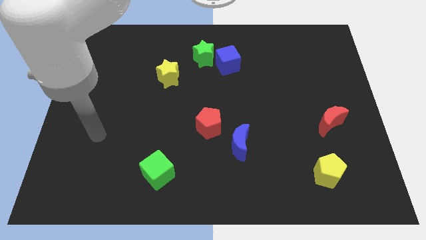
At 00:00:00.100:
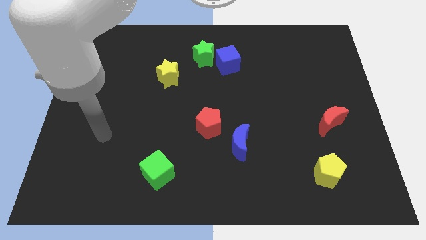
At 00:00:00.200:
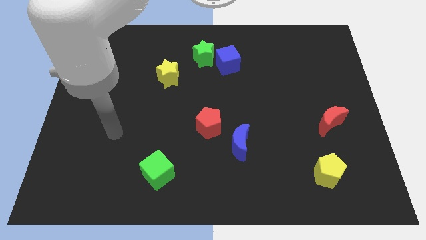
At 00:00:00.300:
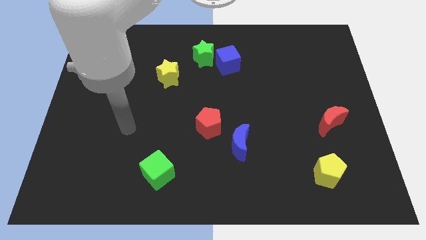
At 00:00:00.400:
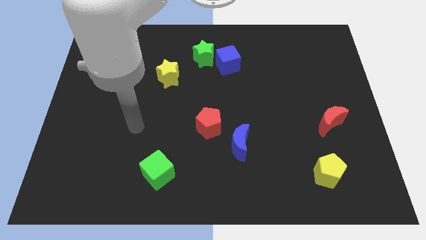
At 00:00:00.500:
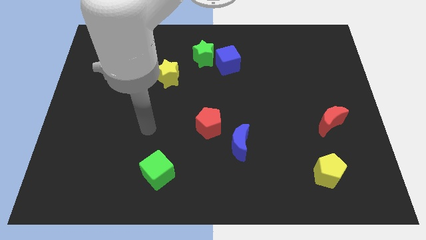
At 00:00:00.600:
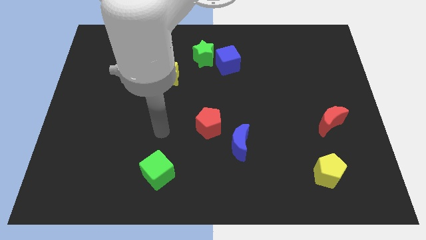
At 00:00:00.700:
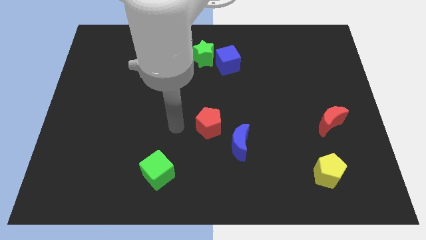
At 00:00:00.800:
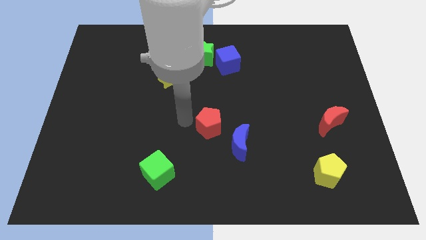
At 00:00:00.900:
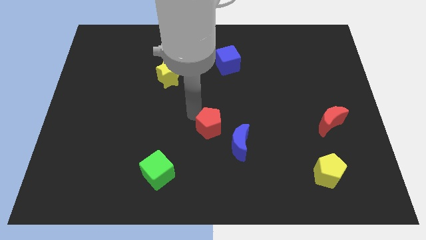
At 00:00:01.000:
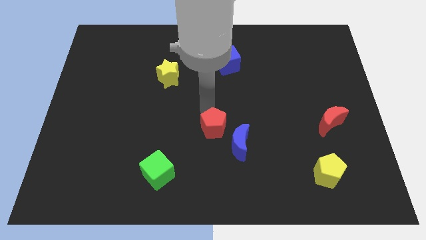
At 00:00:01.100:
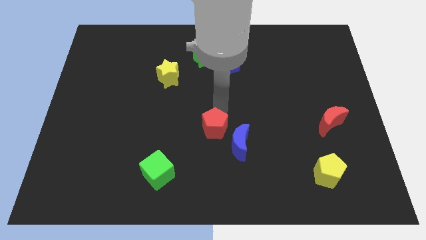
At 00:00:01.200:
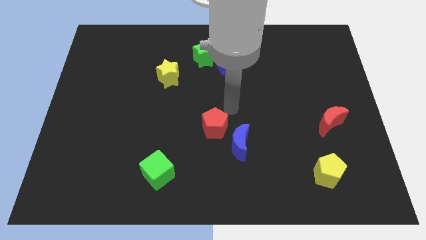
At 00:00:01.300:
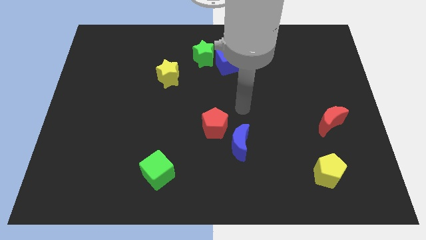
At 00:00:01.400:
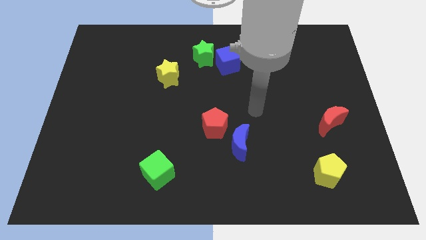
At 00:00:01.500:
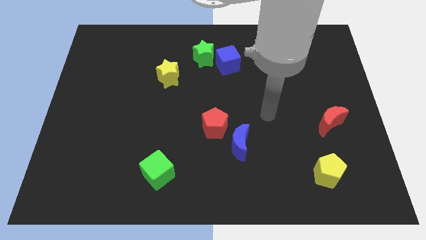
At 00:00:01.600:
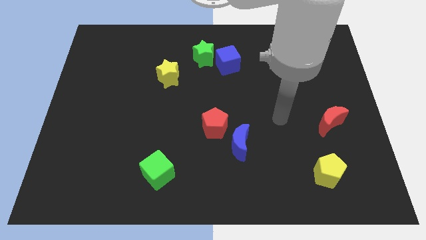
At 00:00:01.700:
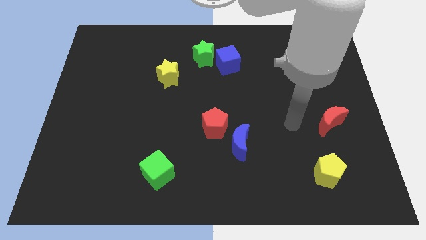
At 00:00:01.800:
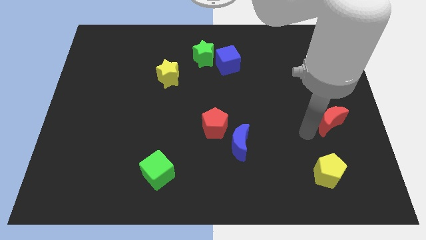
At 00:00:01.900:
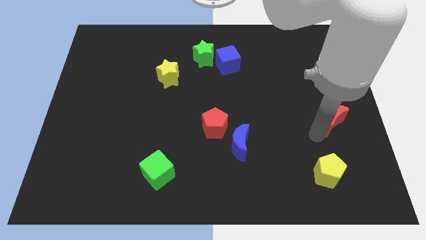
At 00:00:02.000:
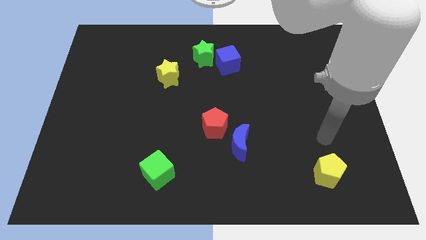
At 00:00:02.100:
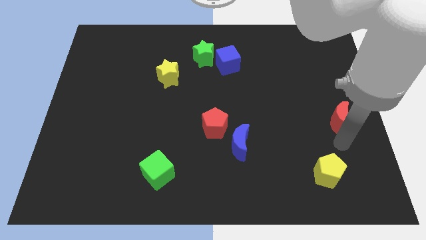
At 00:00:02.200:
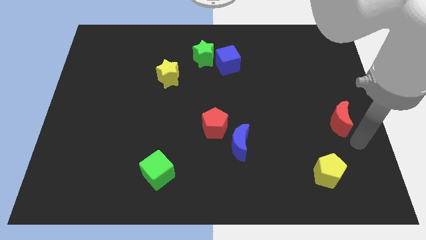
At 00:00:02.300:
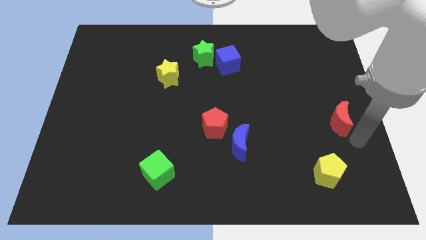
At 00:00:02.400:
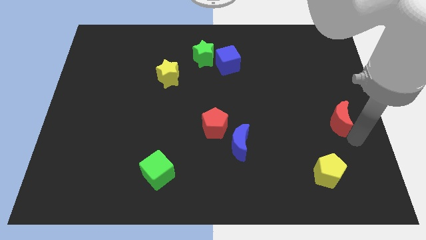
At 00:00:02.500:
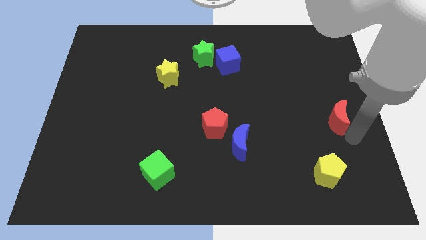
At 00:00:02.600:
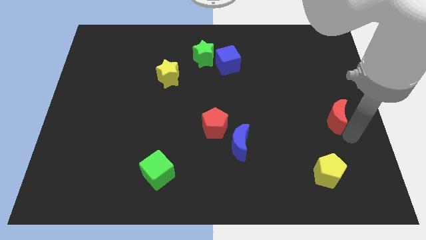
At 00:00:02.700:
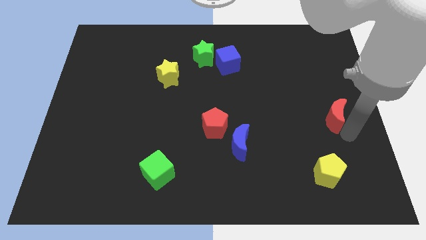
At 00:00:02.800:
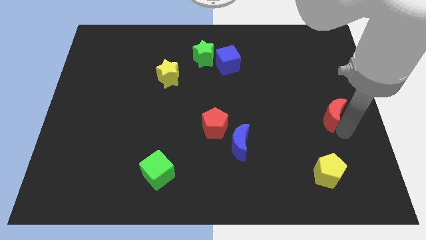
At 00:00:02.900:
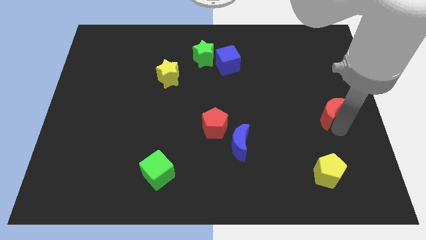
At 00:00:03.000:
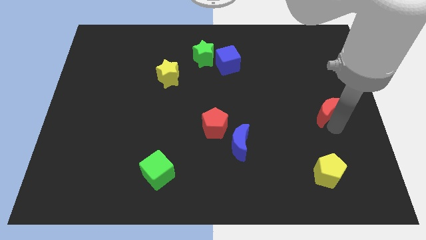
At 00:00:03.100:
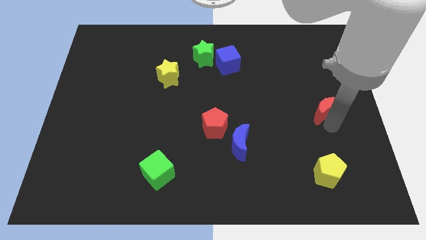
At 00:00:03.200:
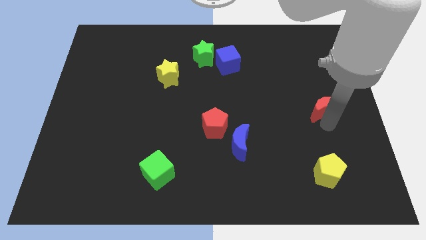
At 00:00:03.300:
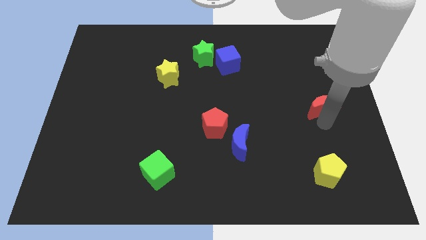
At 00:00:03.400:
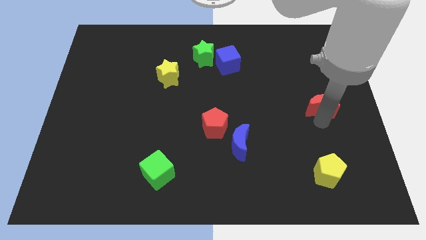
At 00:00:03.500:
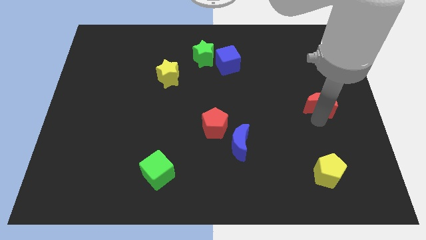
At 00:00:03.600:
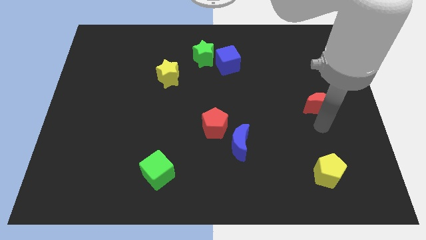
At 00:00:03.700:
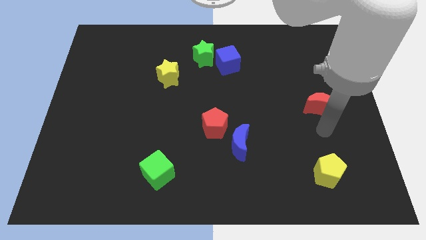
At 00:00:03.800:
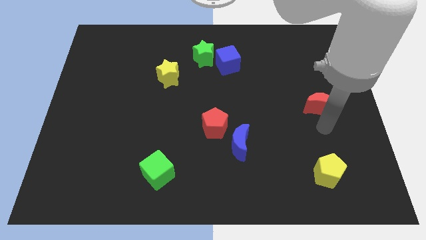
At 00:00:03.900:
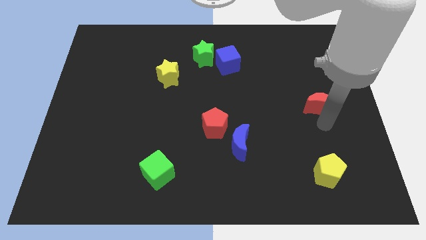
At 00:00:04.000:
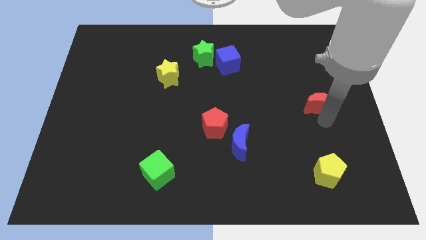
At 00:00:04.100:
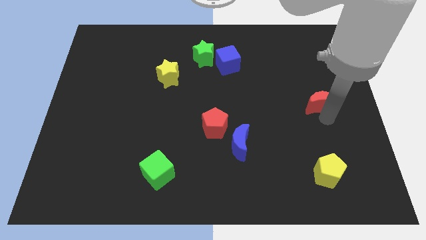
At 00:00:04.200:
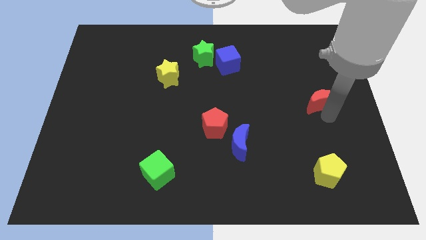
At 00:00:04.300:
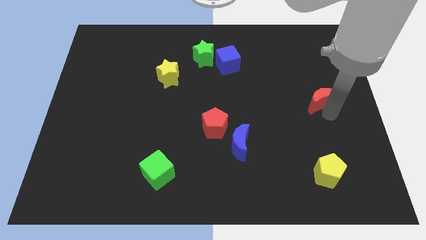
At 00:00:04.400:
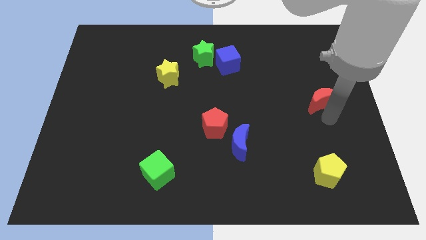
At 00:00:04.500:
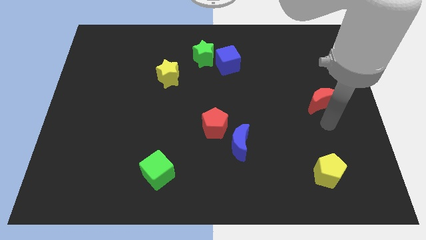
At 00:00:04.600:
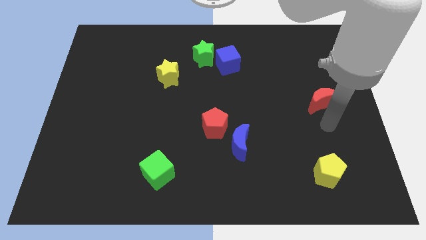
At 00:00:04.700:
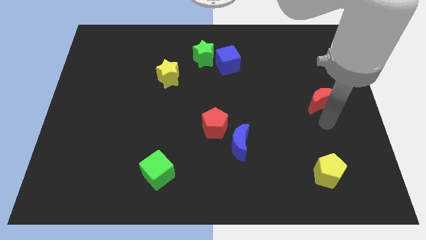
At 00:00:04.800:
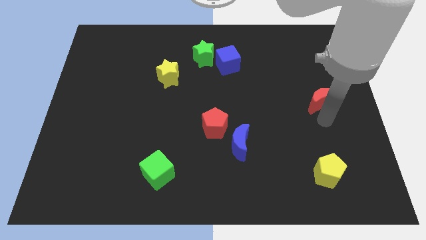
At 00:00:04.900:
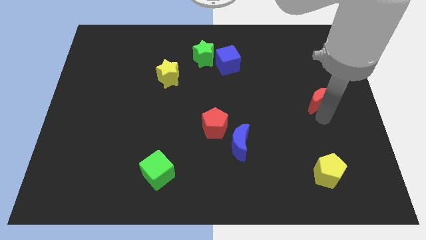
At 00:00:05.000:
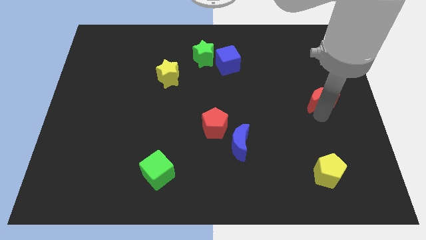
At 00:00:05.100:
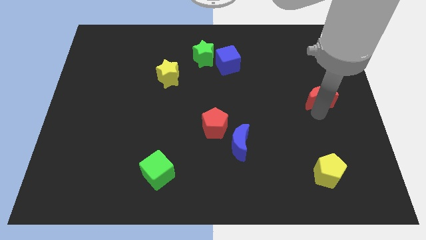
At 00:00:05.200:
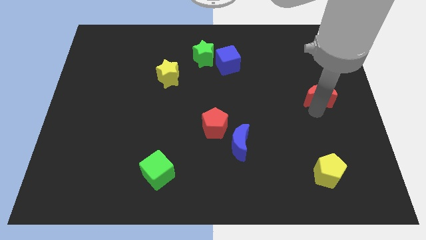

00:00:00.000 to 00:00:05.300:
slide the red moon up slightly

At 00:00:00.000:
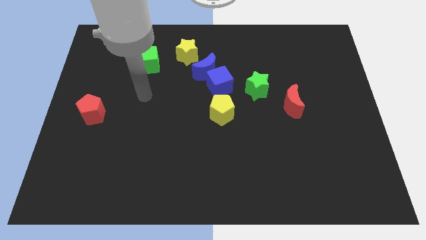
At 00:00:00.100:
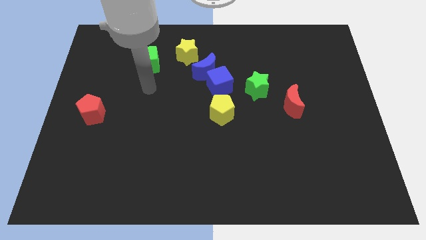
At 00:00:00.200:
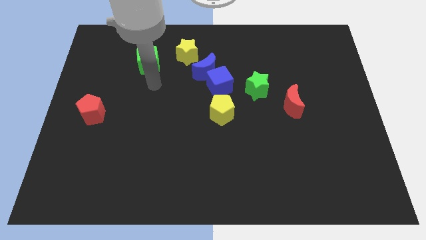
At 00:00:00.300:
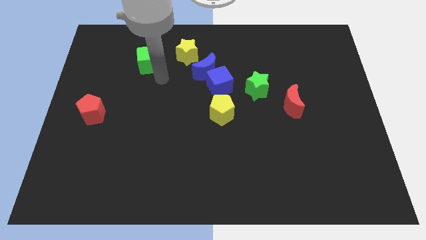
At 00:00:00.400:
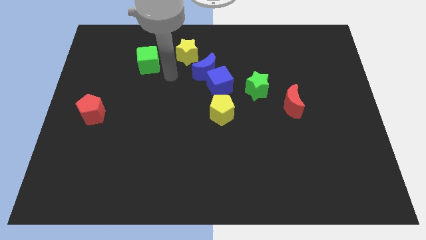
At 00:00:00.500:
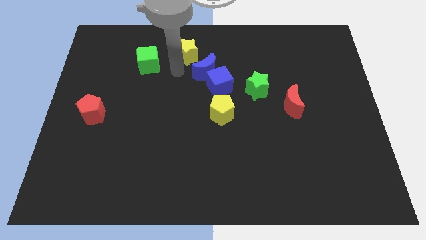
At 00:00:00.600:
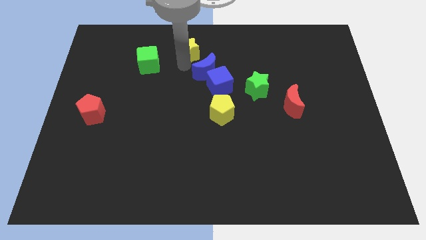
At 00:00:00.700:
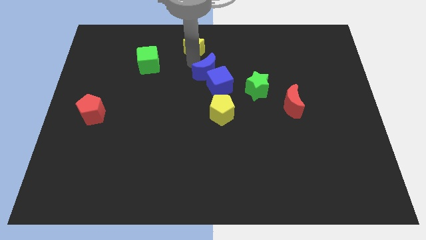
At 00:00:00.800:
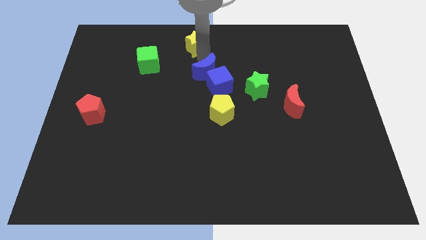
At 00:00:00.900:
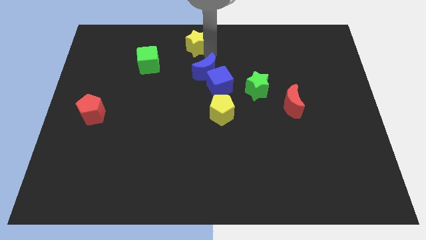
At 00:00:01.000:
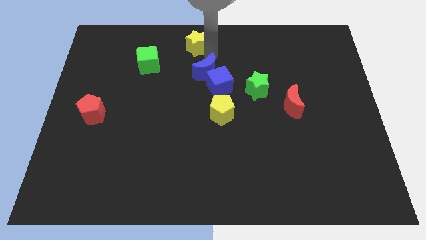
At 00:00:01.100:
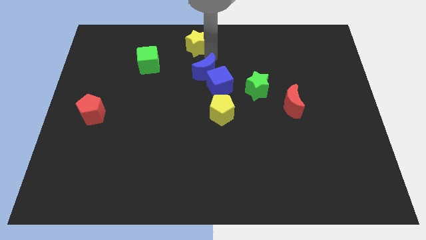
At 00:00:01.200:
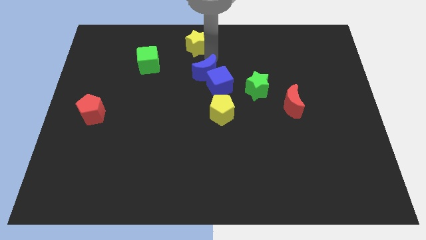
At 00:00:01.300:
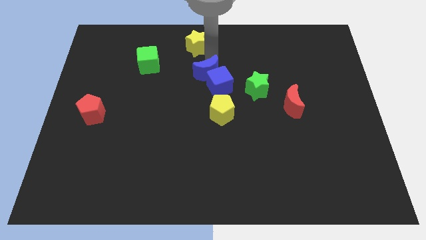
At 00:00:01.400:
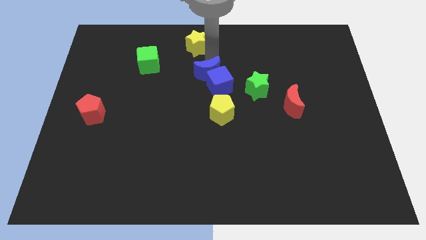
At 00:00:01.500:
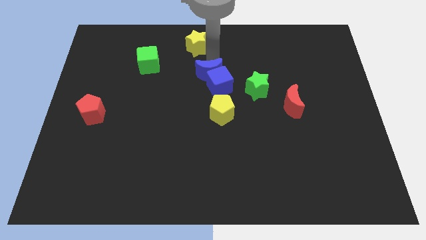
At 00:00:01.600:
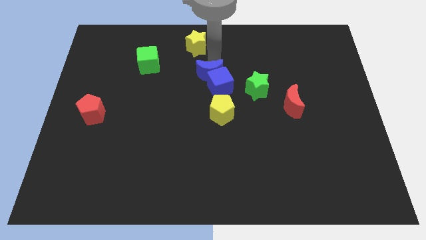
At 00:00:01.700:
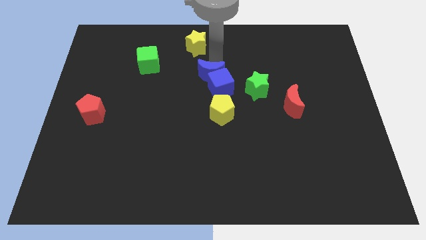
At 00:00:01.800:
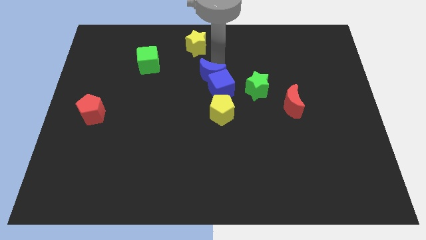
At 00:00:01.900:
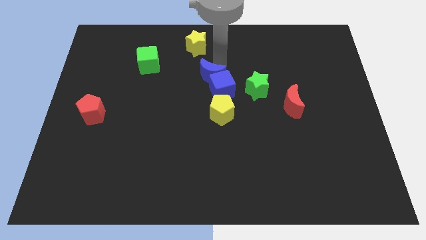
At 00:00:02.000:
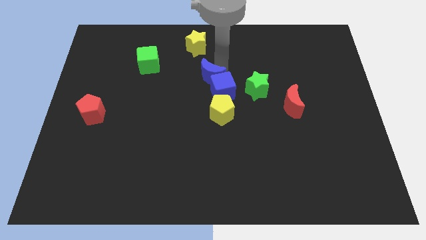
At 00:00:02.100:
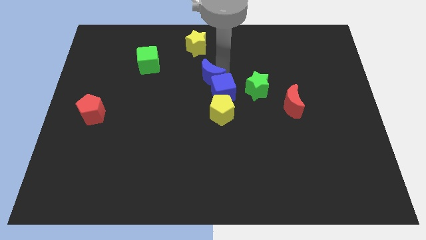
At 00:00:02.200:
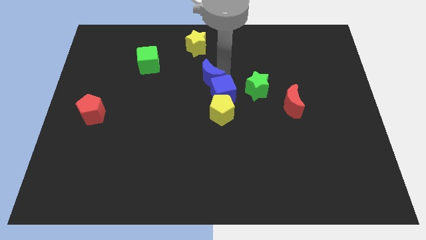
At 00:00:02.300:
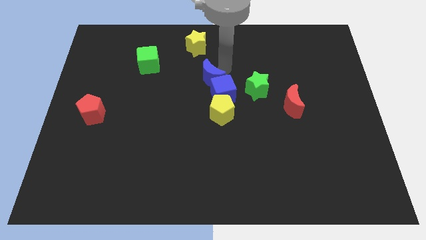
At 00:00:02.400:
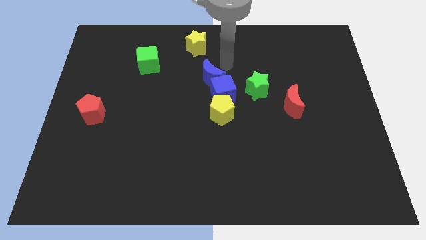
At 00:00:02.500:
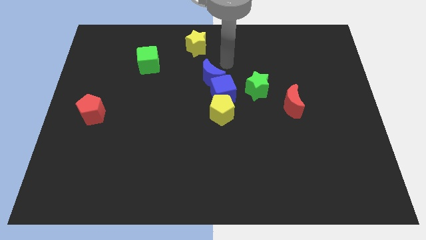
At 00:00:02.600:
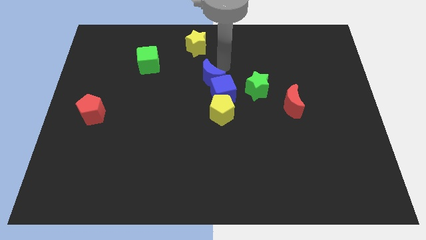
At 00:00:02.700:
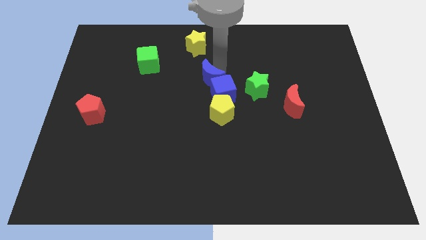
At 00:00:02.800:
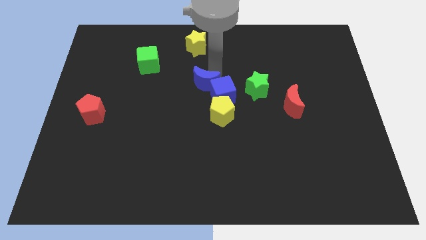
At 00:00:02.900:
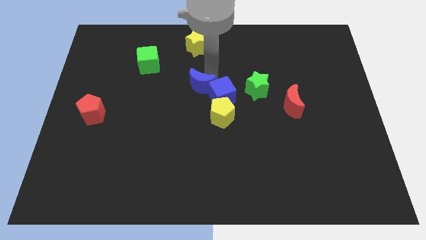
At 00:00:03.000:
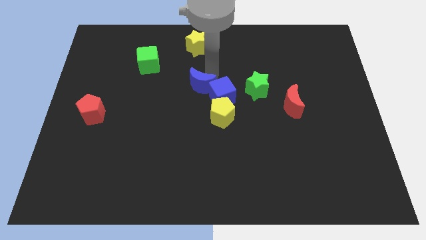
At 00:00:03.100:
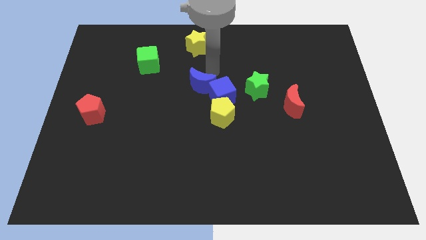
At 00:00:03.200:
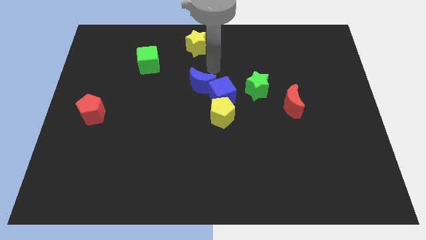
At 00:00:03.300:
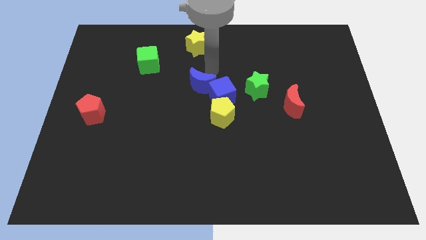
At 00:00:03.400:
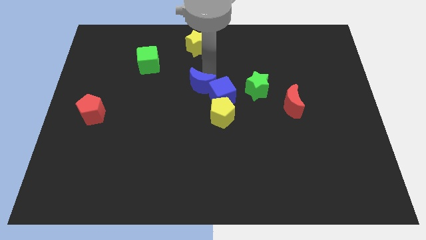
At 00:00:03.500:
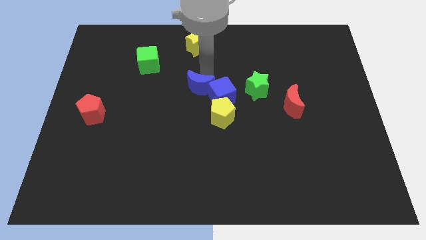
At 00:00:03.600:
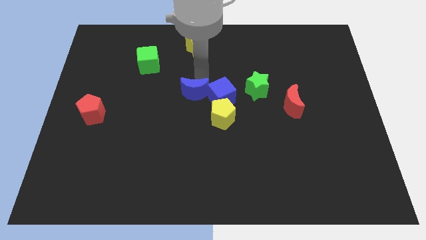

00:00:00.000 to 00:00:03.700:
slightly push the blue moon downwards
